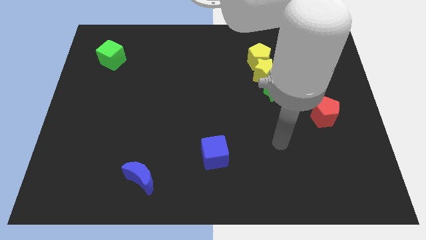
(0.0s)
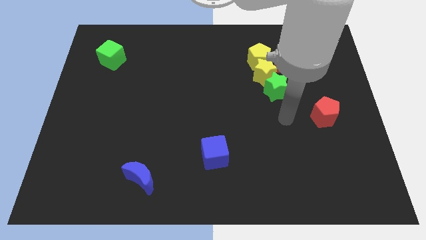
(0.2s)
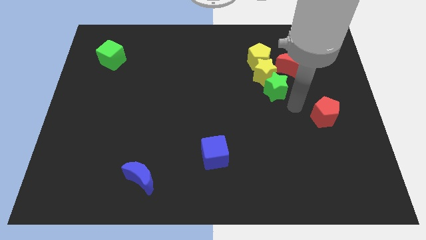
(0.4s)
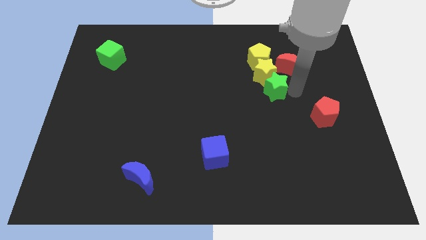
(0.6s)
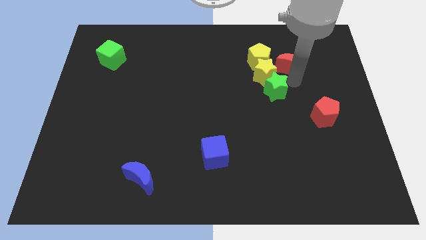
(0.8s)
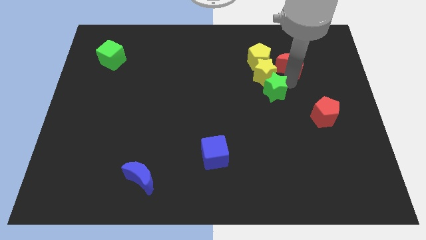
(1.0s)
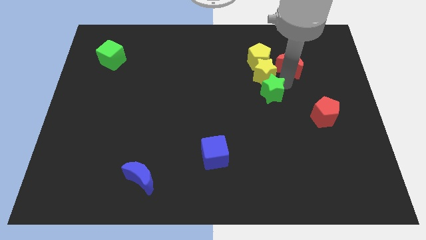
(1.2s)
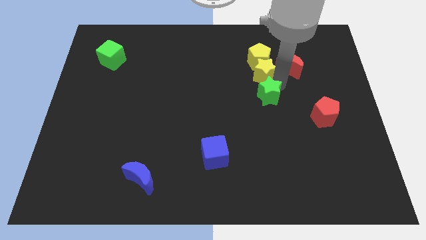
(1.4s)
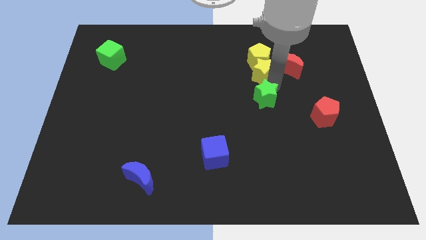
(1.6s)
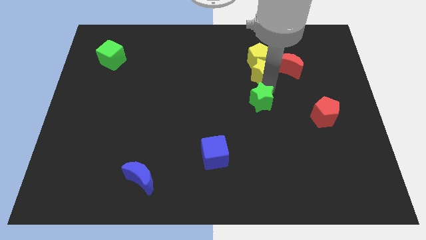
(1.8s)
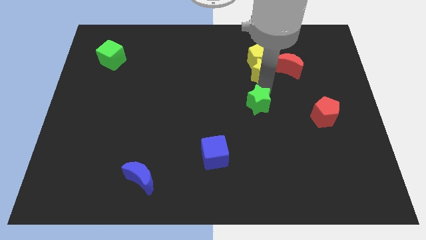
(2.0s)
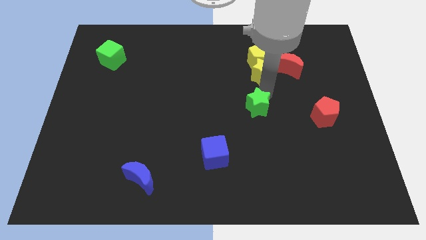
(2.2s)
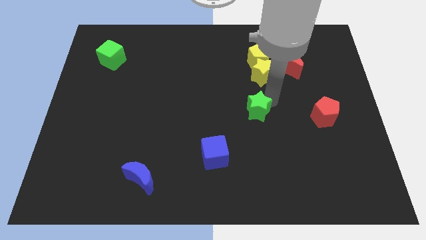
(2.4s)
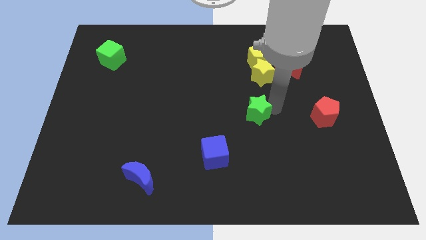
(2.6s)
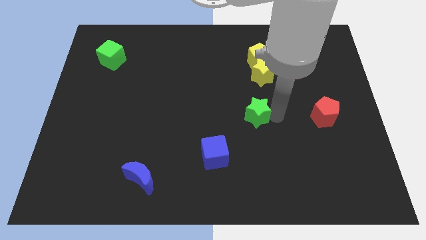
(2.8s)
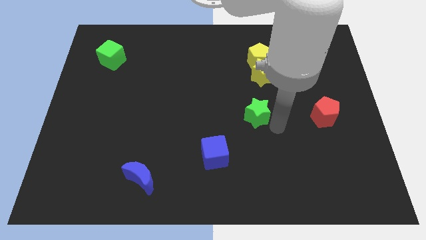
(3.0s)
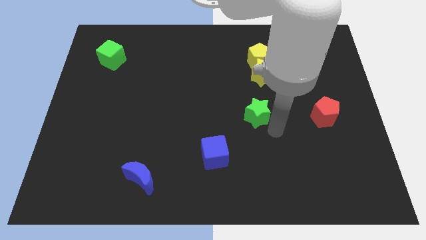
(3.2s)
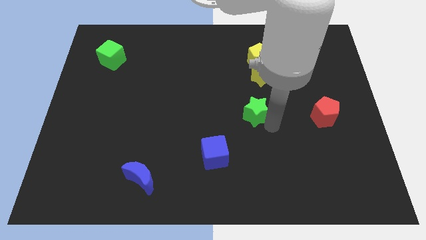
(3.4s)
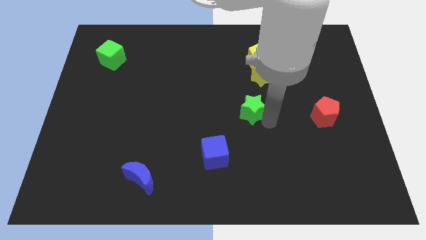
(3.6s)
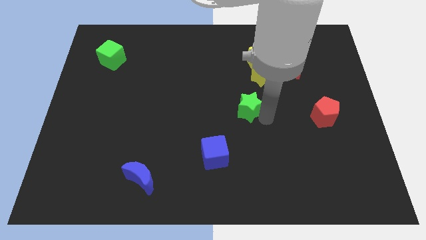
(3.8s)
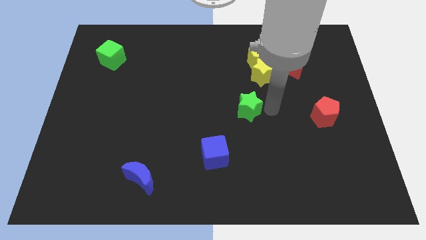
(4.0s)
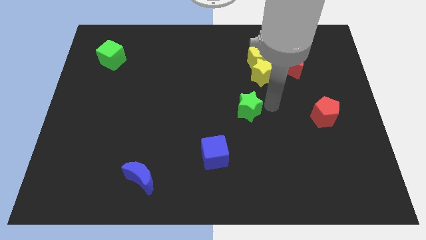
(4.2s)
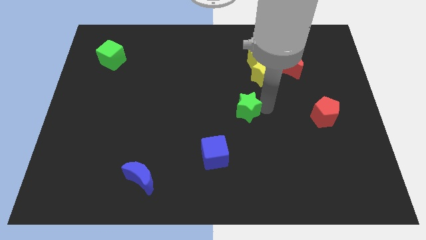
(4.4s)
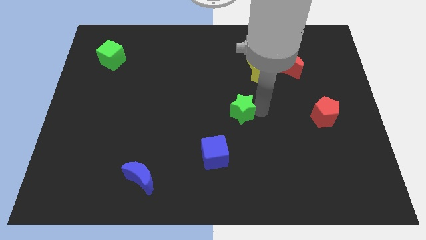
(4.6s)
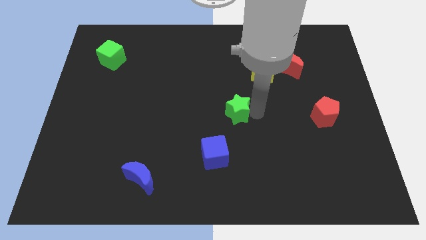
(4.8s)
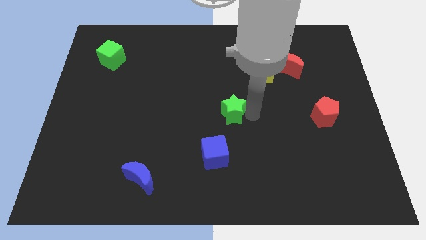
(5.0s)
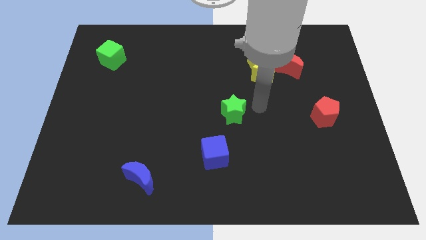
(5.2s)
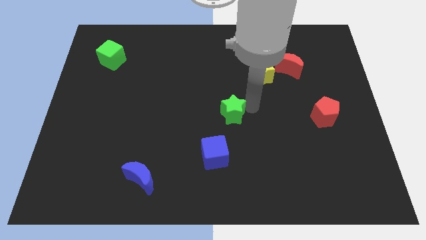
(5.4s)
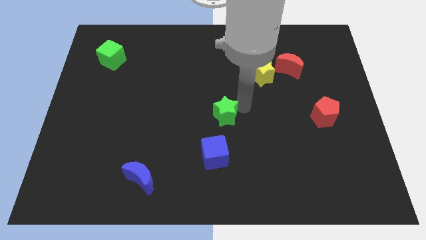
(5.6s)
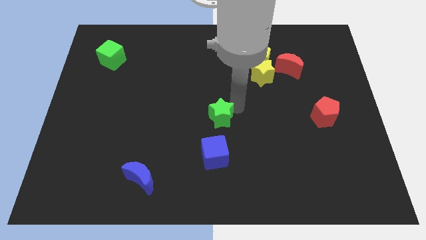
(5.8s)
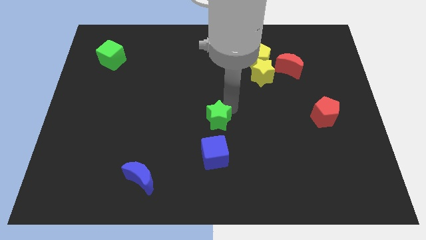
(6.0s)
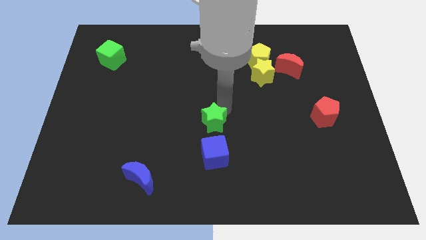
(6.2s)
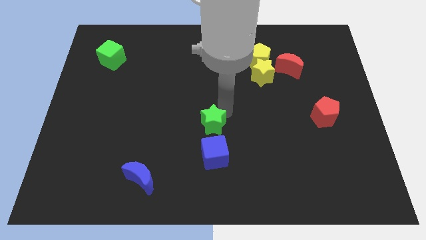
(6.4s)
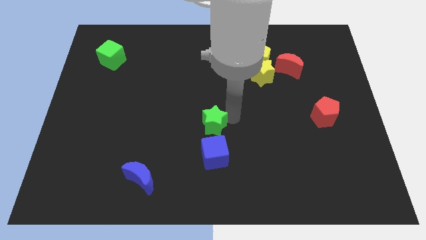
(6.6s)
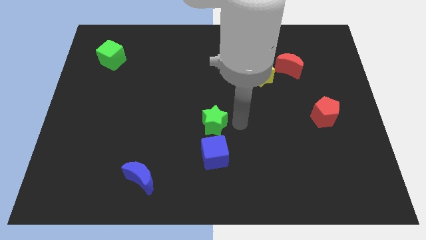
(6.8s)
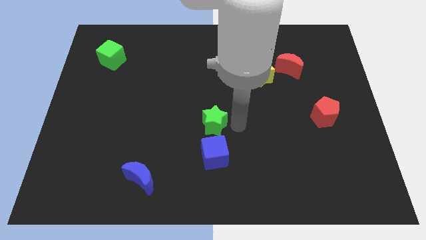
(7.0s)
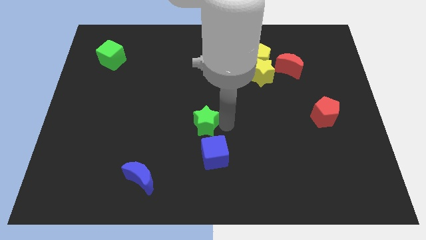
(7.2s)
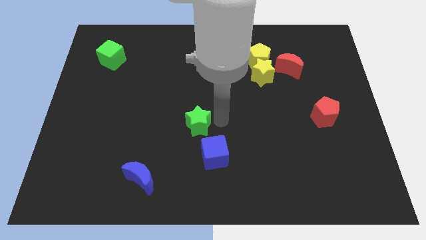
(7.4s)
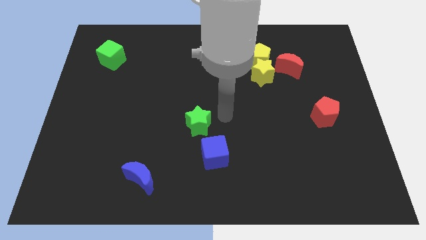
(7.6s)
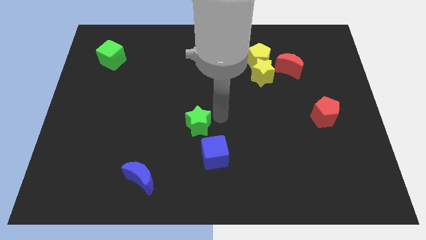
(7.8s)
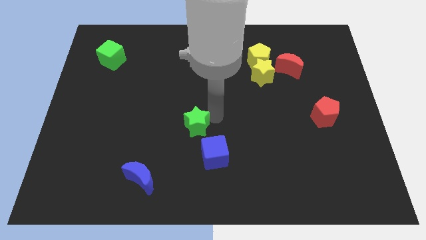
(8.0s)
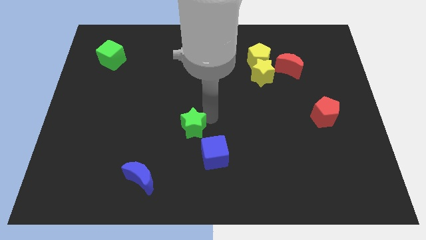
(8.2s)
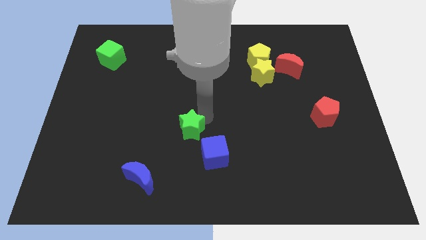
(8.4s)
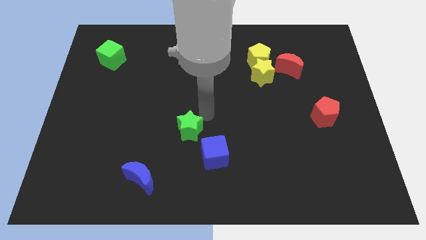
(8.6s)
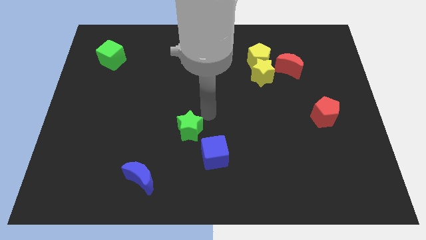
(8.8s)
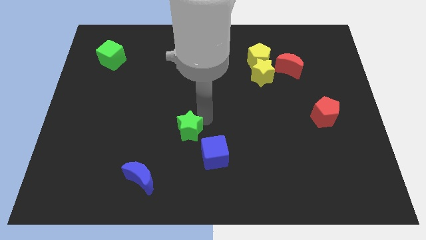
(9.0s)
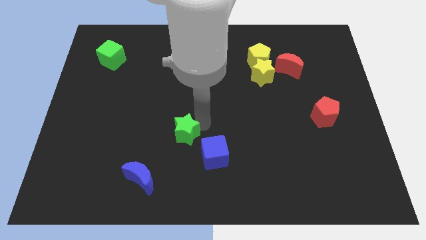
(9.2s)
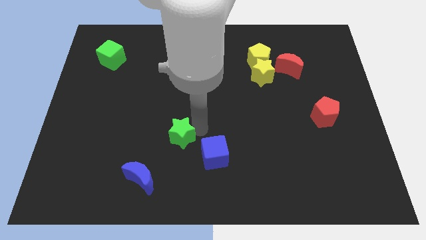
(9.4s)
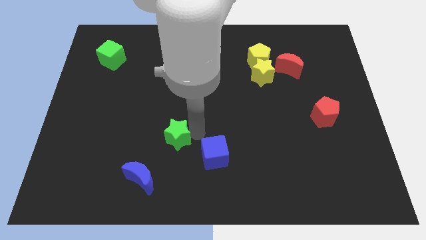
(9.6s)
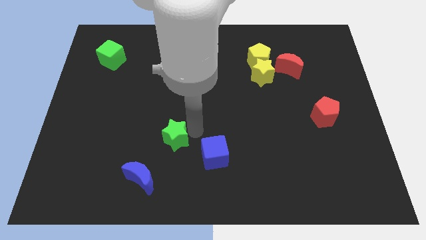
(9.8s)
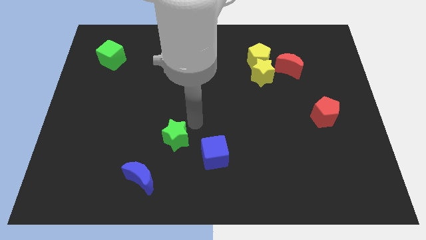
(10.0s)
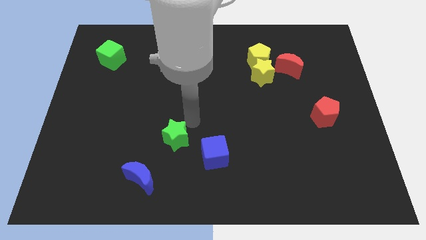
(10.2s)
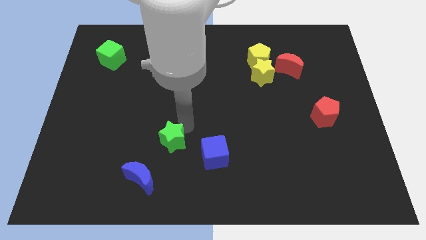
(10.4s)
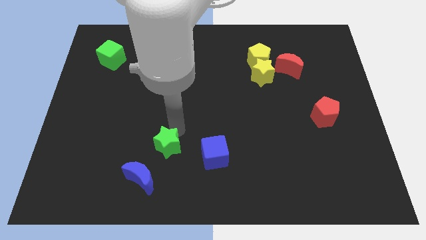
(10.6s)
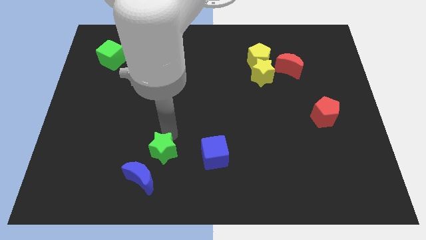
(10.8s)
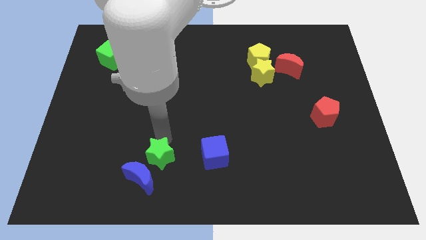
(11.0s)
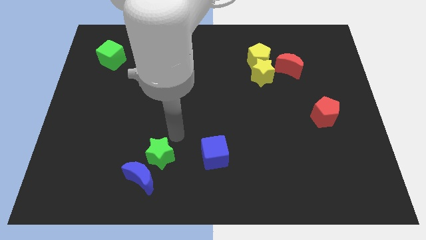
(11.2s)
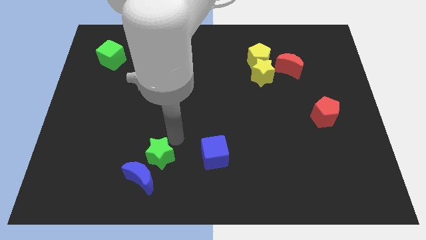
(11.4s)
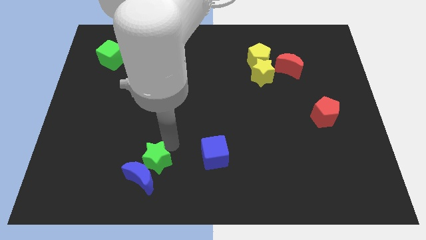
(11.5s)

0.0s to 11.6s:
slide the green star to the blue moon

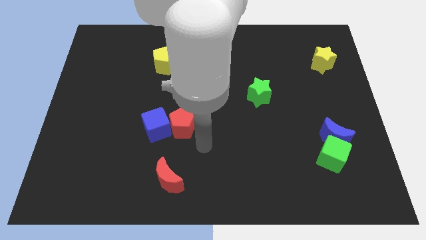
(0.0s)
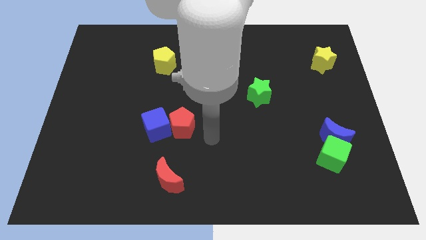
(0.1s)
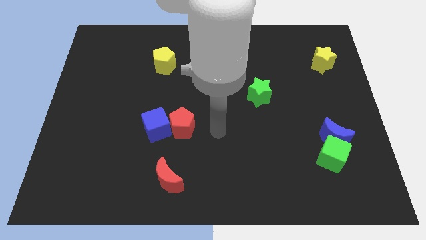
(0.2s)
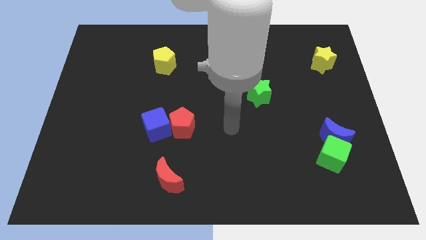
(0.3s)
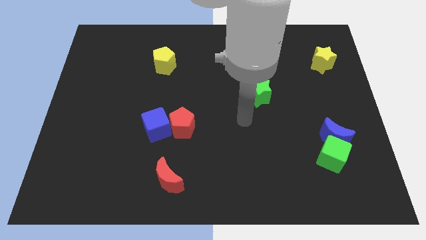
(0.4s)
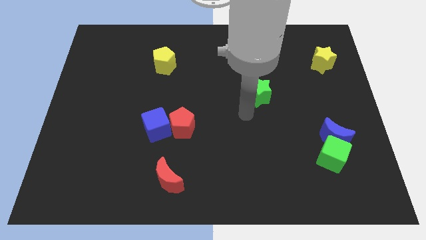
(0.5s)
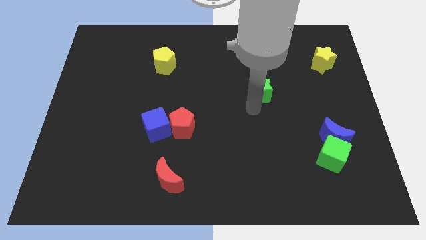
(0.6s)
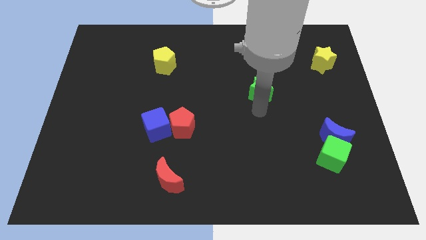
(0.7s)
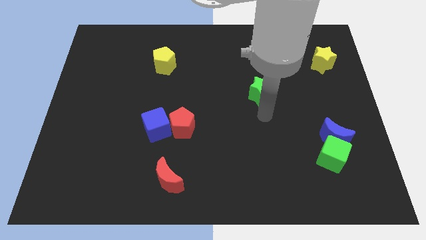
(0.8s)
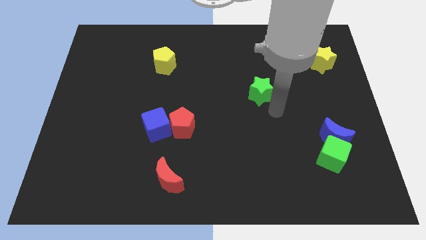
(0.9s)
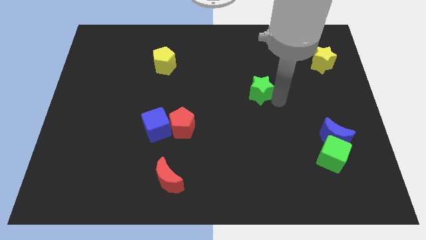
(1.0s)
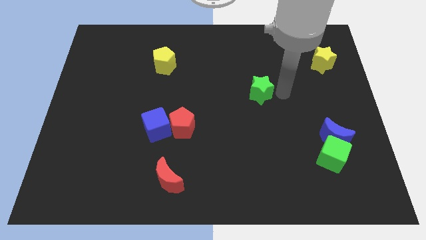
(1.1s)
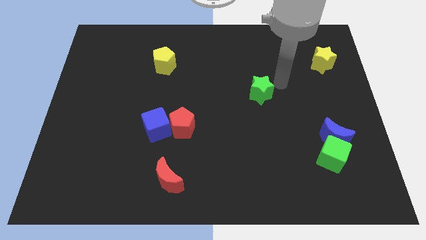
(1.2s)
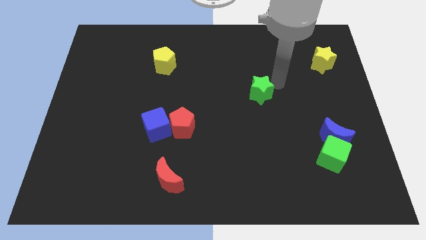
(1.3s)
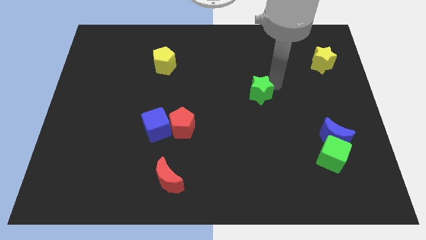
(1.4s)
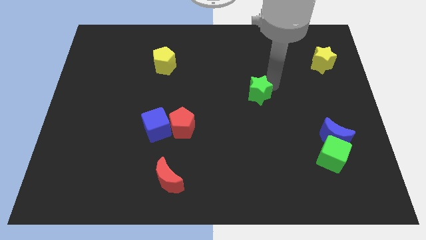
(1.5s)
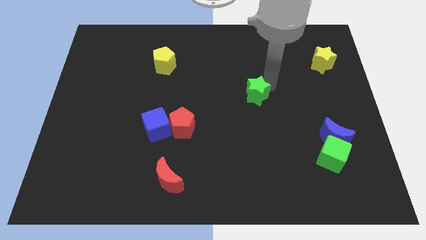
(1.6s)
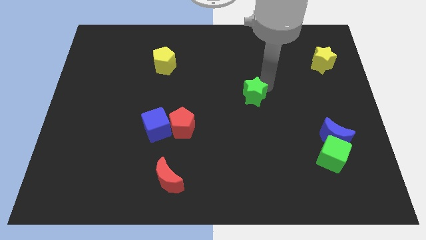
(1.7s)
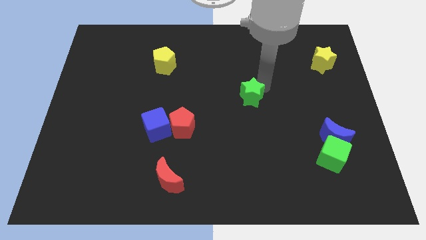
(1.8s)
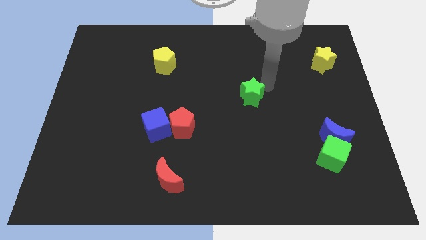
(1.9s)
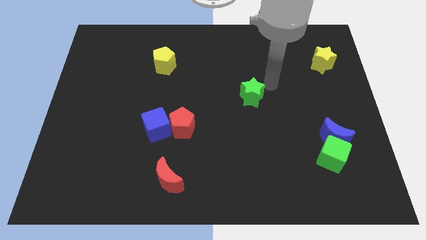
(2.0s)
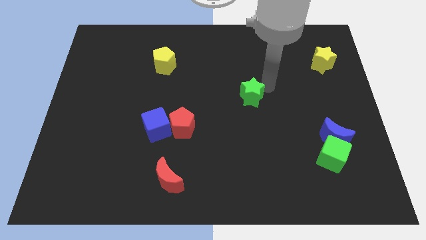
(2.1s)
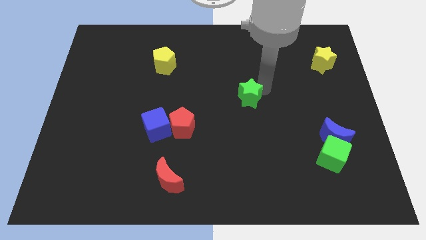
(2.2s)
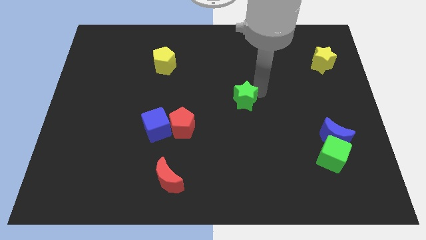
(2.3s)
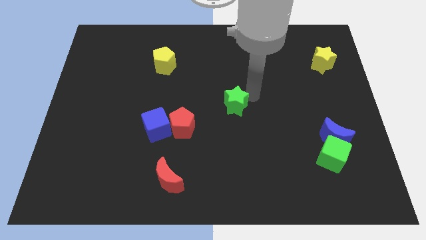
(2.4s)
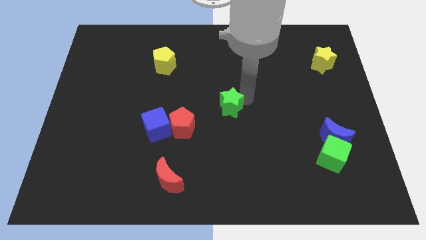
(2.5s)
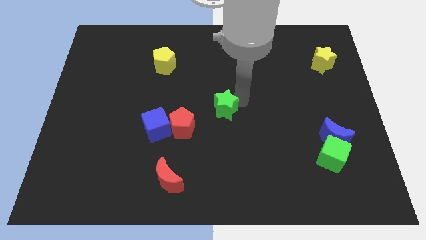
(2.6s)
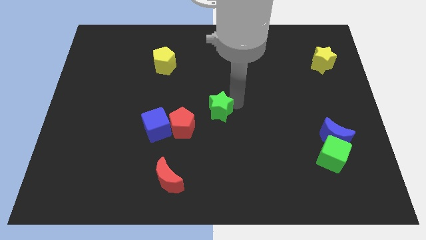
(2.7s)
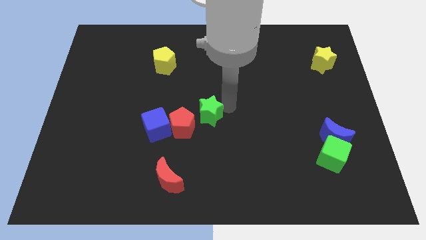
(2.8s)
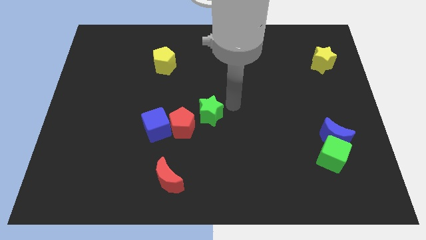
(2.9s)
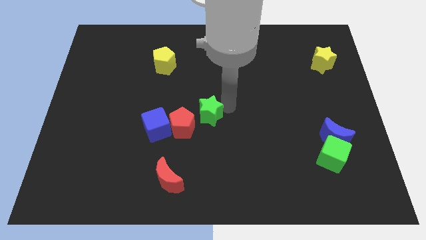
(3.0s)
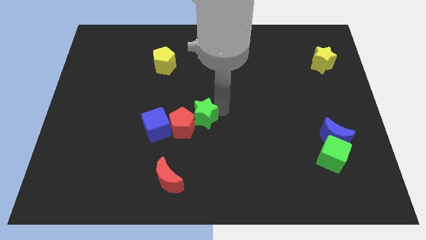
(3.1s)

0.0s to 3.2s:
slide the green star close to the red pentagon
